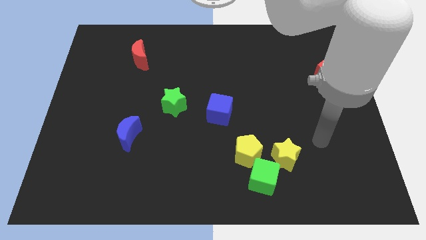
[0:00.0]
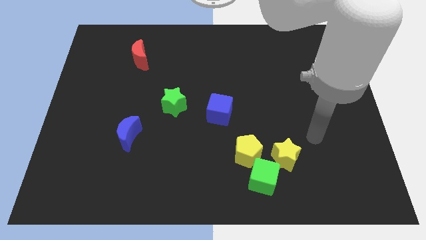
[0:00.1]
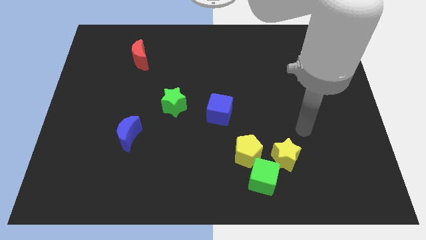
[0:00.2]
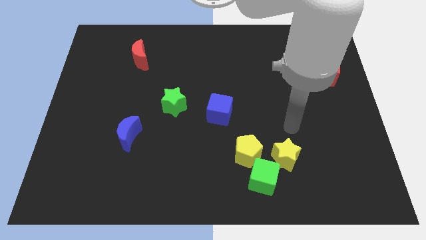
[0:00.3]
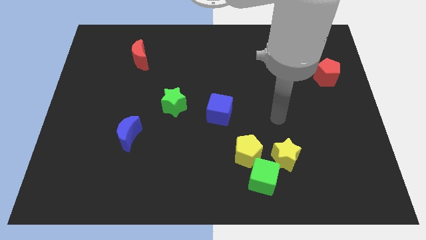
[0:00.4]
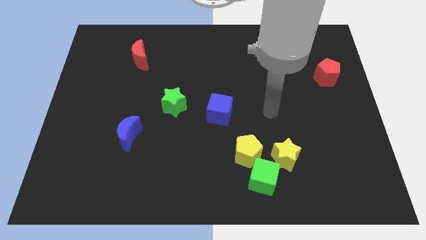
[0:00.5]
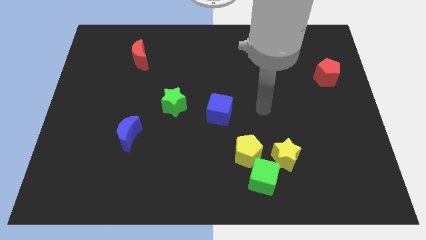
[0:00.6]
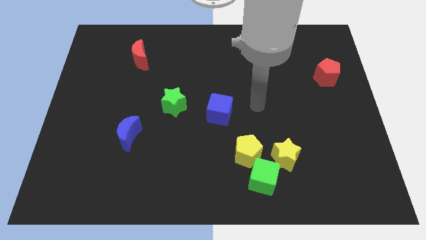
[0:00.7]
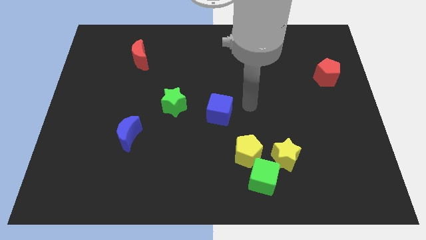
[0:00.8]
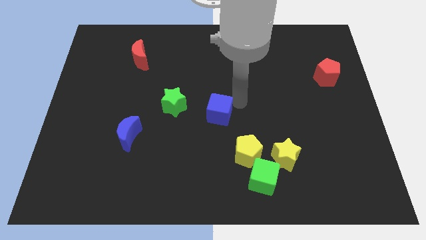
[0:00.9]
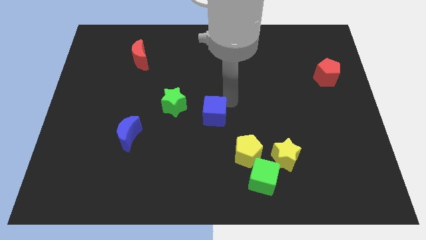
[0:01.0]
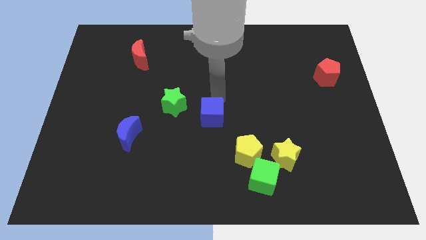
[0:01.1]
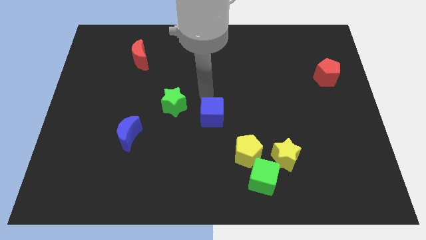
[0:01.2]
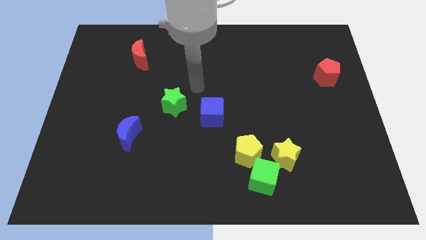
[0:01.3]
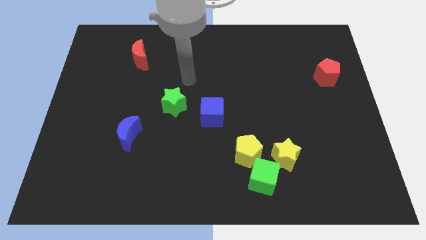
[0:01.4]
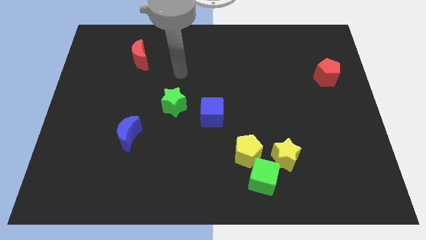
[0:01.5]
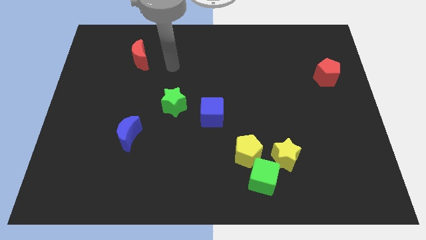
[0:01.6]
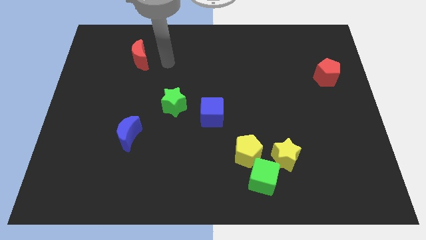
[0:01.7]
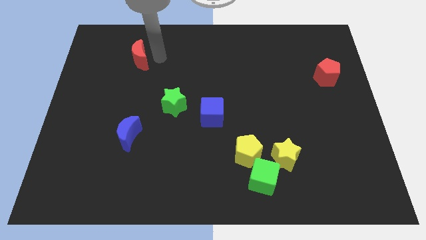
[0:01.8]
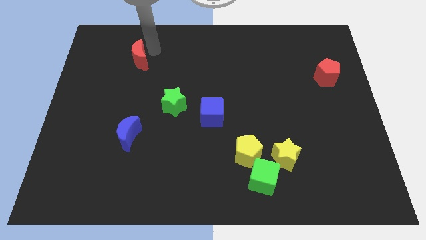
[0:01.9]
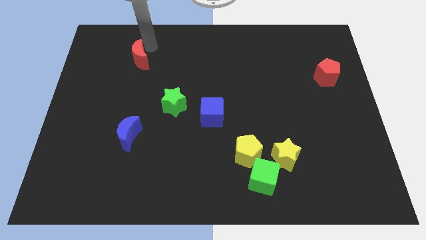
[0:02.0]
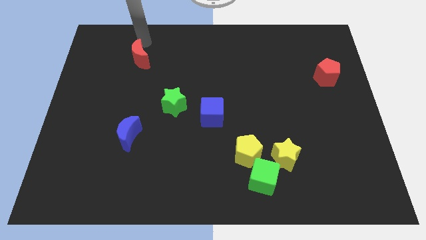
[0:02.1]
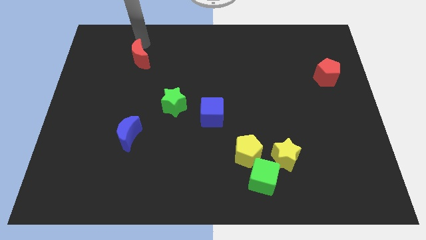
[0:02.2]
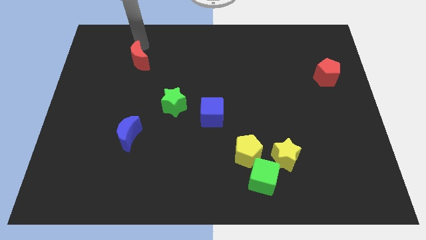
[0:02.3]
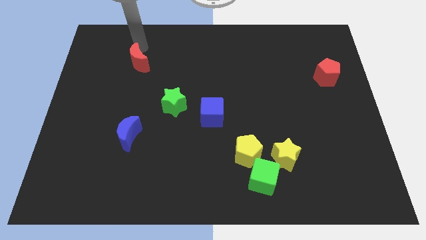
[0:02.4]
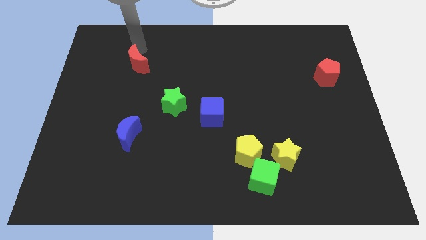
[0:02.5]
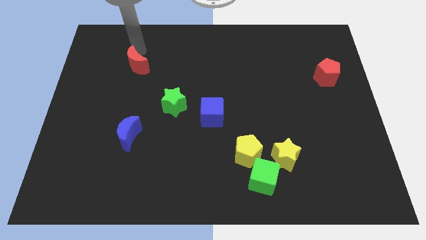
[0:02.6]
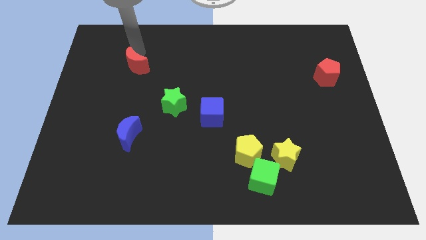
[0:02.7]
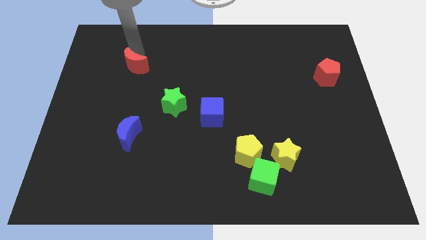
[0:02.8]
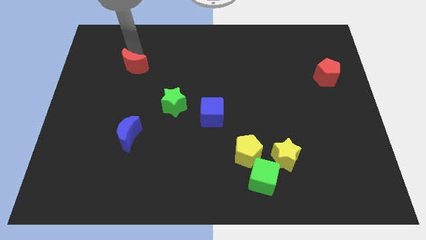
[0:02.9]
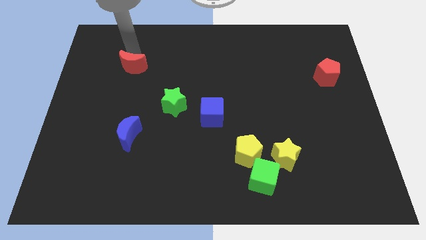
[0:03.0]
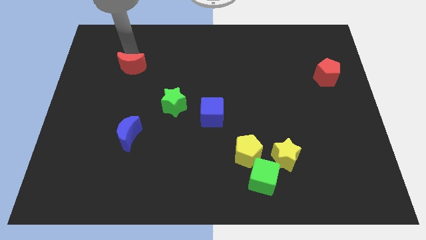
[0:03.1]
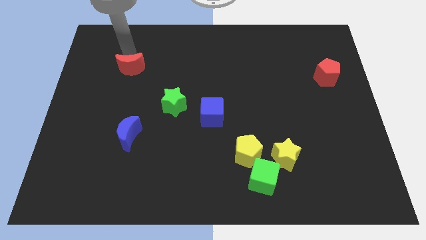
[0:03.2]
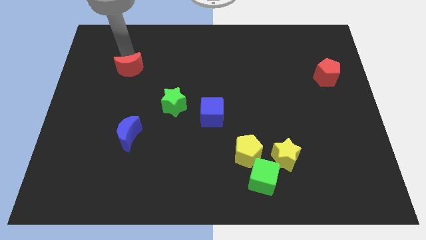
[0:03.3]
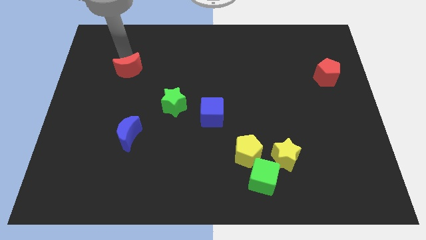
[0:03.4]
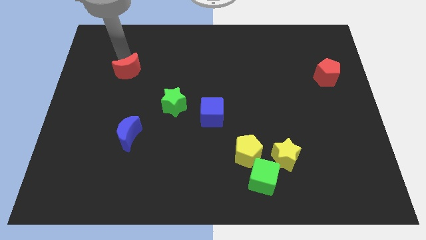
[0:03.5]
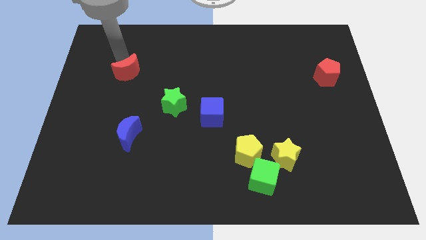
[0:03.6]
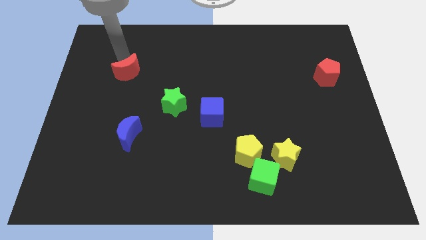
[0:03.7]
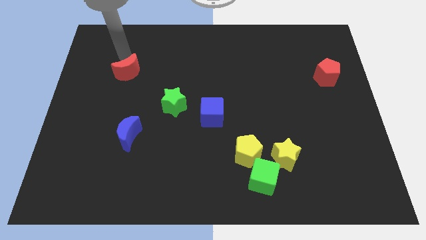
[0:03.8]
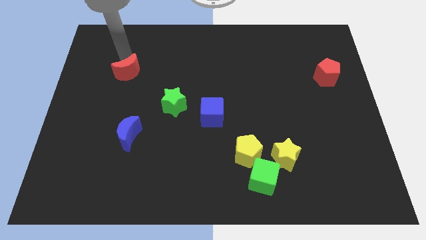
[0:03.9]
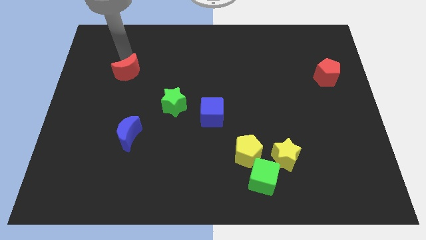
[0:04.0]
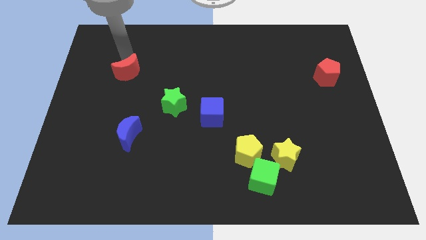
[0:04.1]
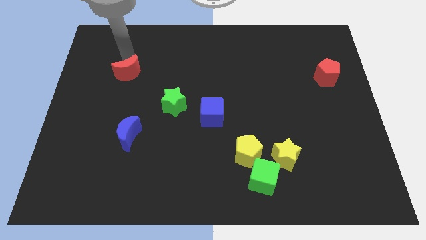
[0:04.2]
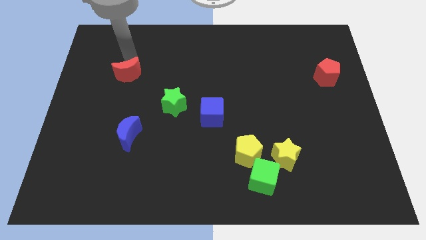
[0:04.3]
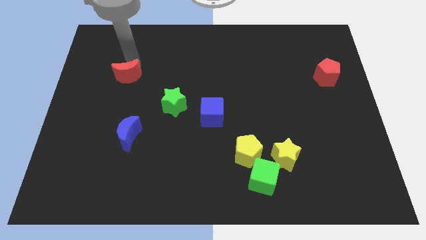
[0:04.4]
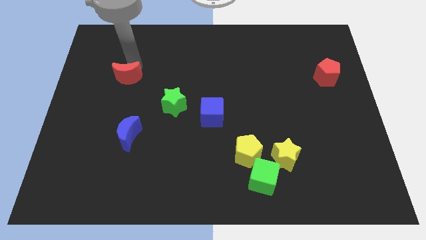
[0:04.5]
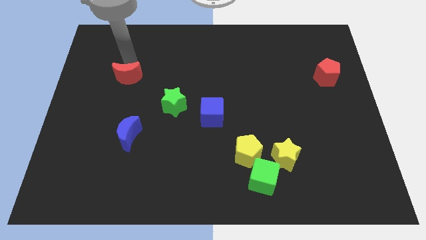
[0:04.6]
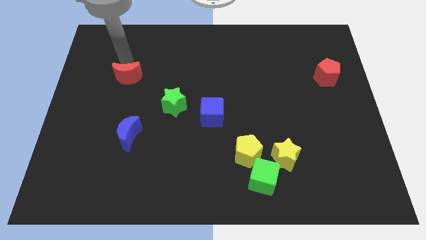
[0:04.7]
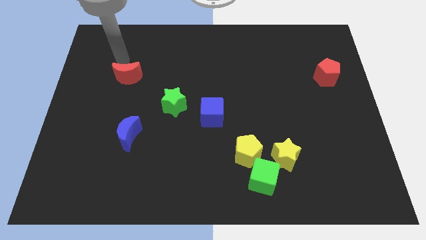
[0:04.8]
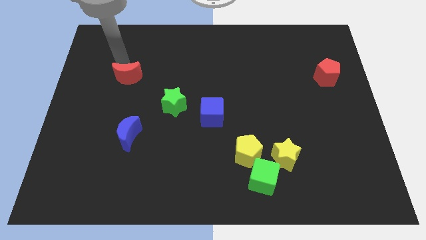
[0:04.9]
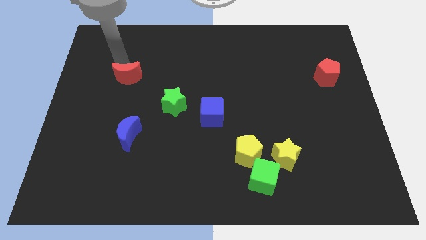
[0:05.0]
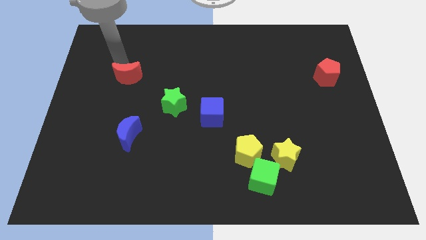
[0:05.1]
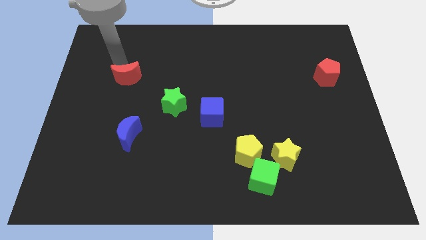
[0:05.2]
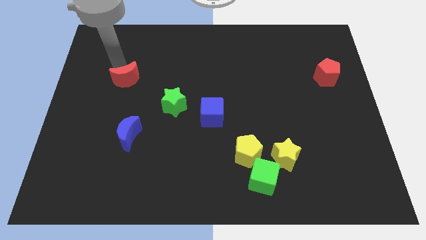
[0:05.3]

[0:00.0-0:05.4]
slightly slide the red moon down

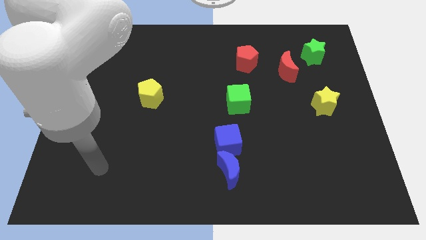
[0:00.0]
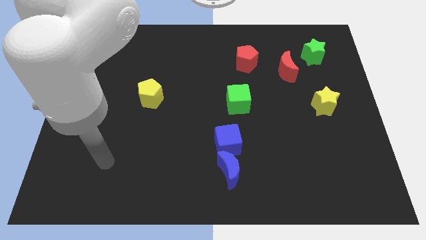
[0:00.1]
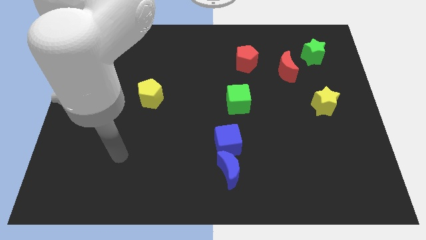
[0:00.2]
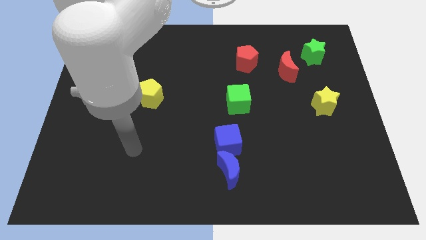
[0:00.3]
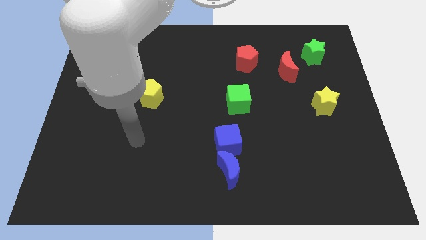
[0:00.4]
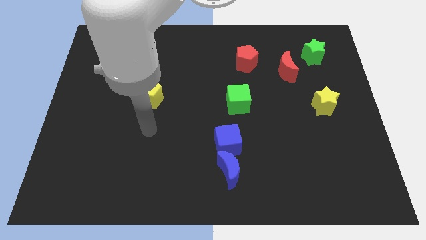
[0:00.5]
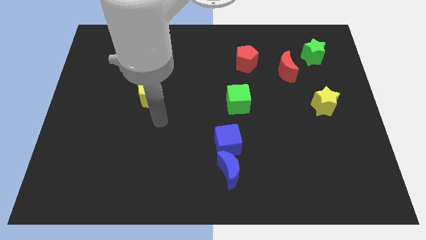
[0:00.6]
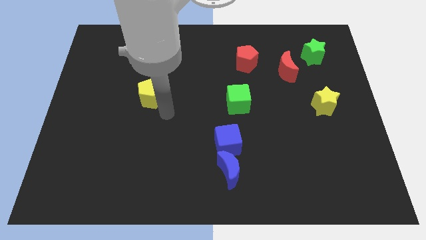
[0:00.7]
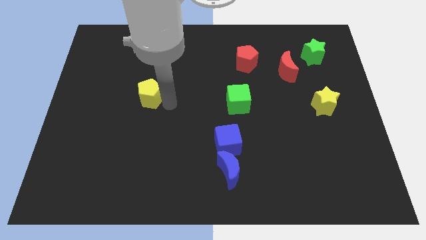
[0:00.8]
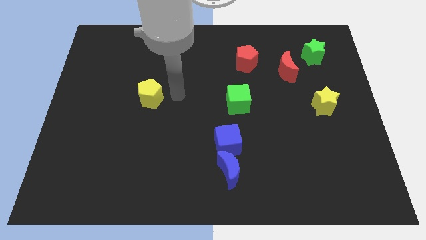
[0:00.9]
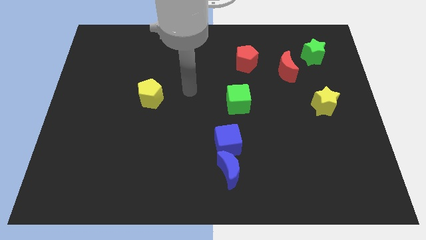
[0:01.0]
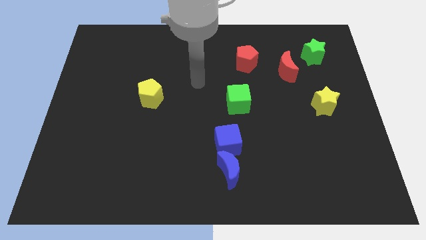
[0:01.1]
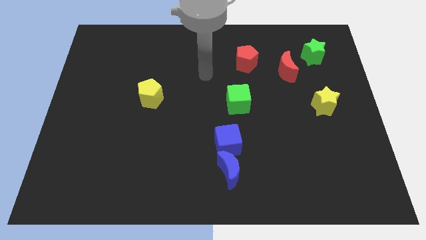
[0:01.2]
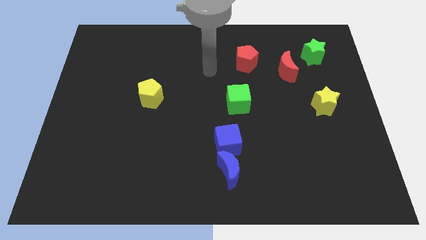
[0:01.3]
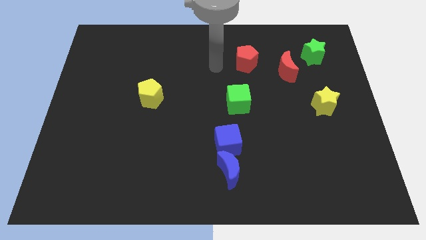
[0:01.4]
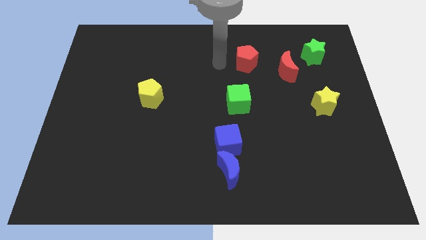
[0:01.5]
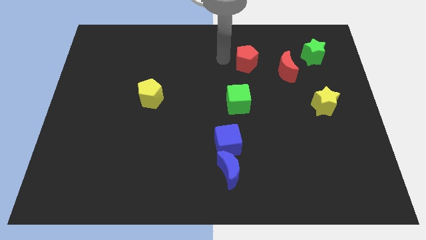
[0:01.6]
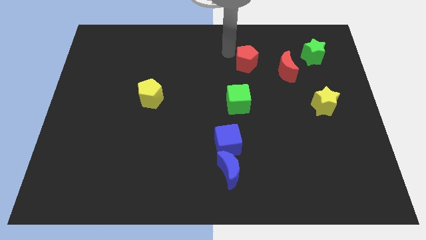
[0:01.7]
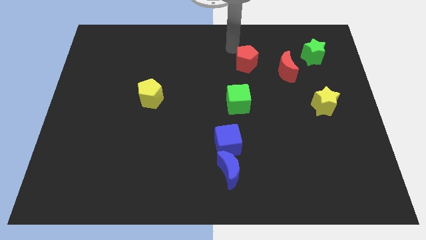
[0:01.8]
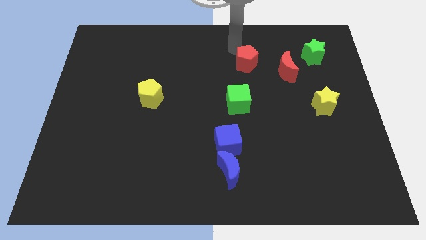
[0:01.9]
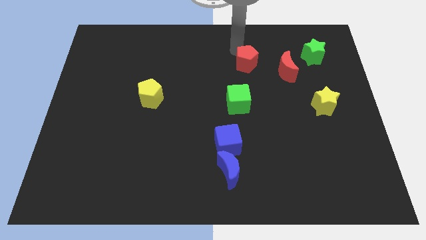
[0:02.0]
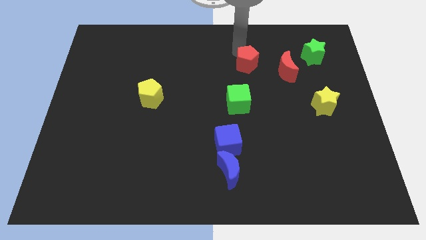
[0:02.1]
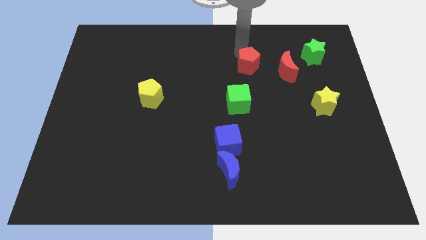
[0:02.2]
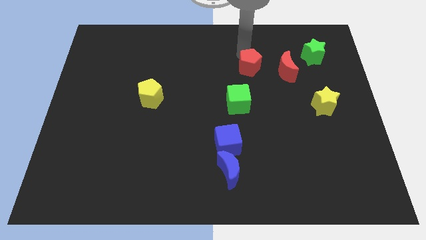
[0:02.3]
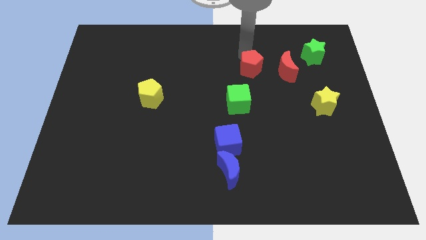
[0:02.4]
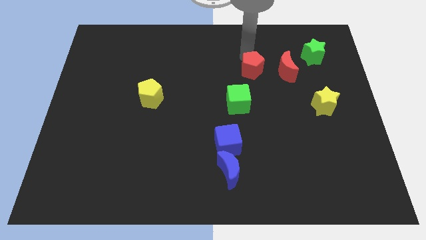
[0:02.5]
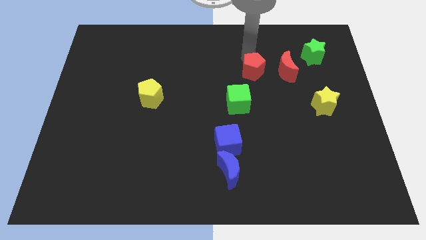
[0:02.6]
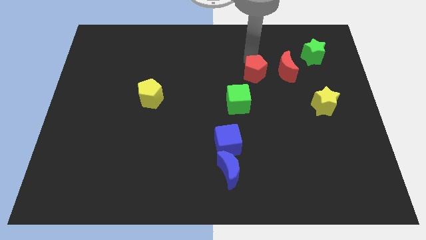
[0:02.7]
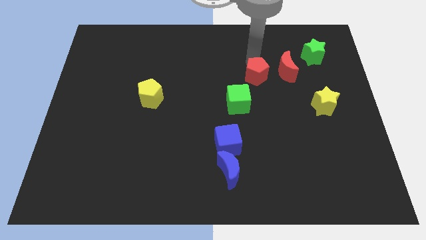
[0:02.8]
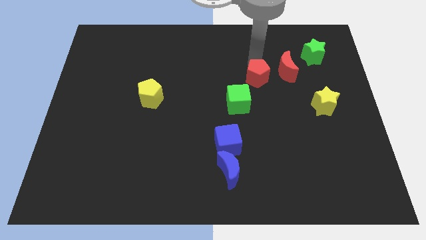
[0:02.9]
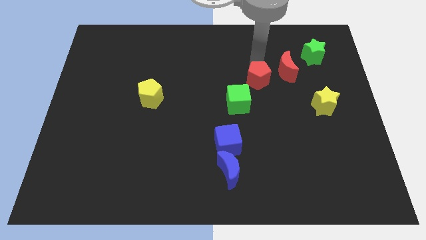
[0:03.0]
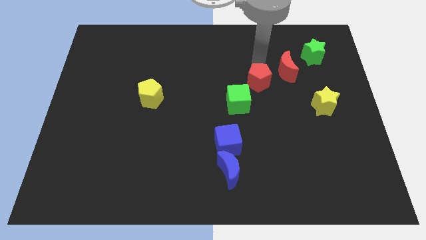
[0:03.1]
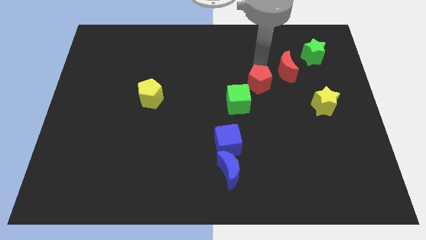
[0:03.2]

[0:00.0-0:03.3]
push the red pentagon down and to the right a bit
